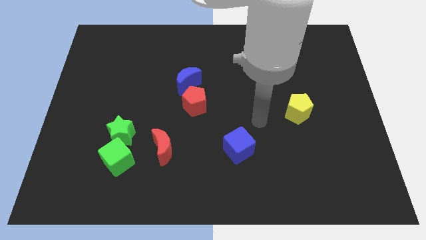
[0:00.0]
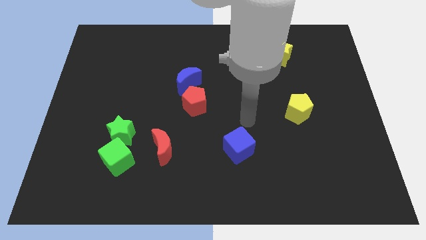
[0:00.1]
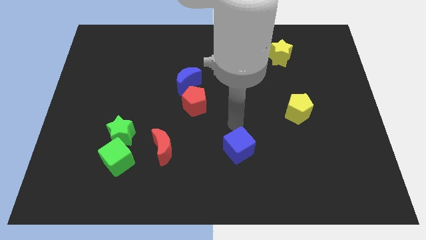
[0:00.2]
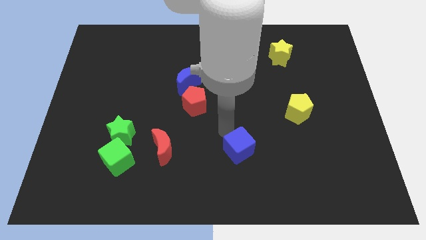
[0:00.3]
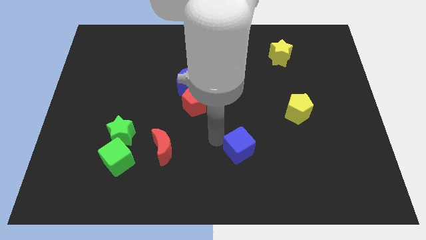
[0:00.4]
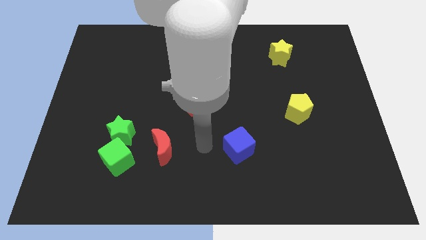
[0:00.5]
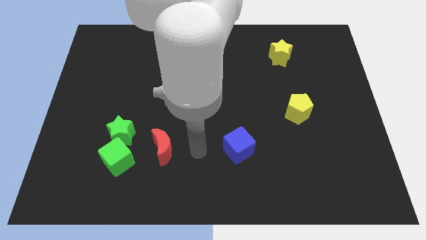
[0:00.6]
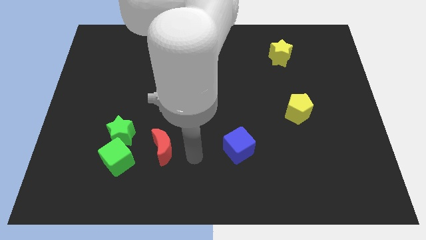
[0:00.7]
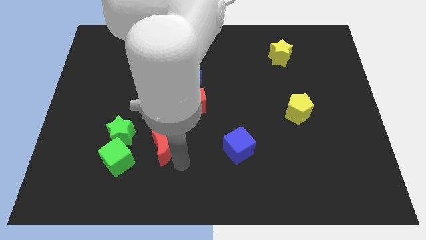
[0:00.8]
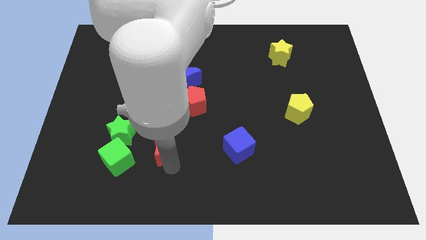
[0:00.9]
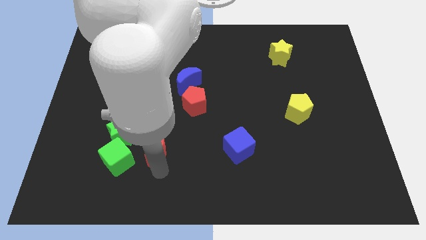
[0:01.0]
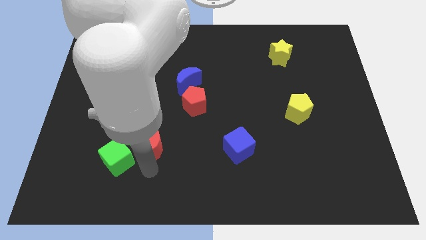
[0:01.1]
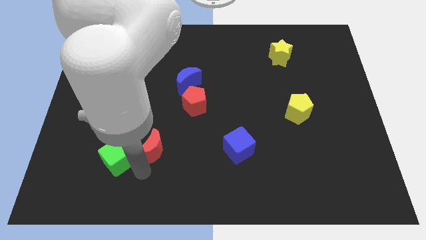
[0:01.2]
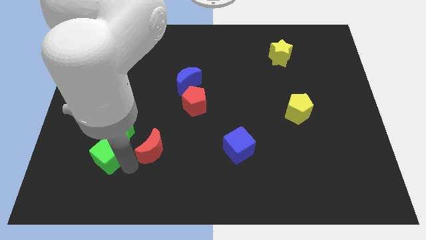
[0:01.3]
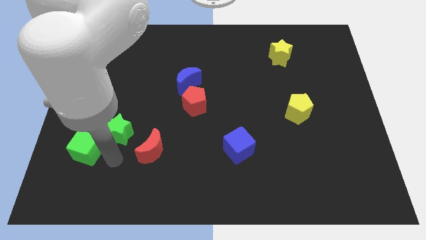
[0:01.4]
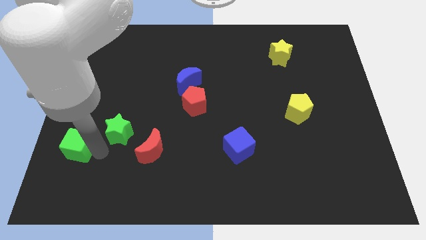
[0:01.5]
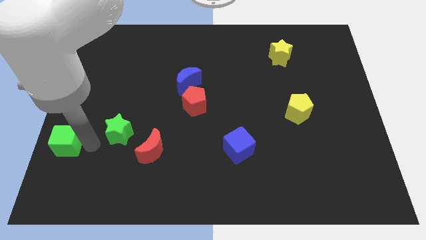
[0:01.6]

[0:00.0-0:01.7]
separate the green star from the green cube

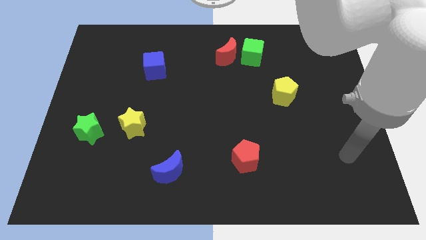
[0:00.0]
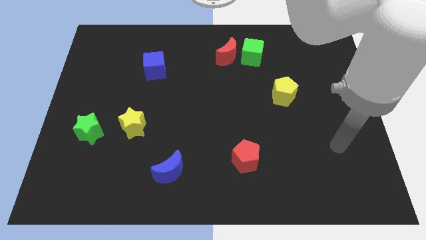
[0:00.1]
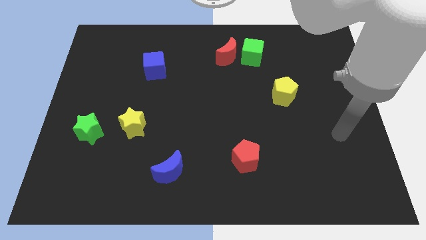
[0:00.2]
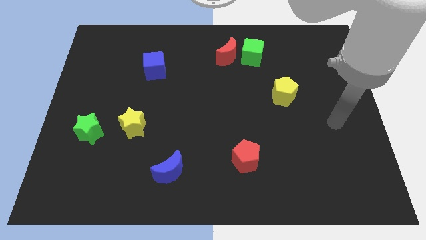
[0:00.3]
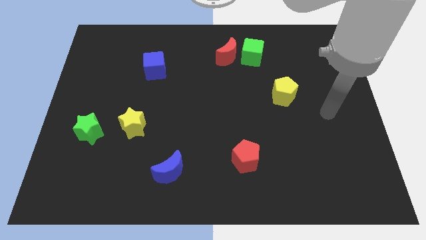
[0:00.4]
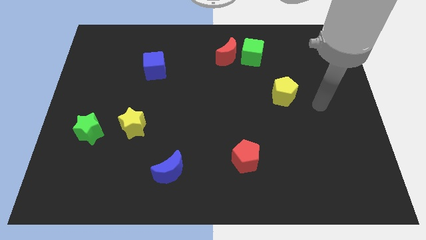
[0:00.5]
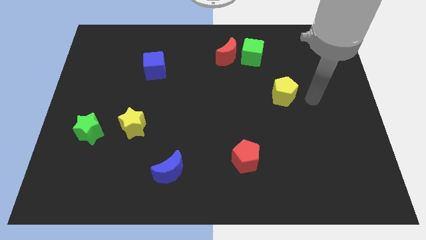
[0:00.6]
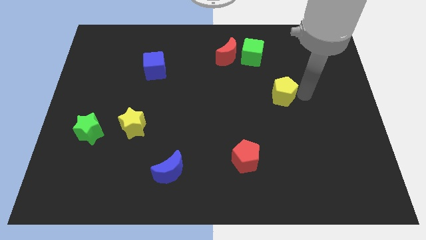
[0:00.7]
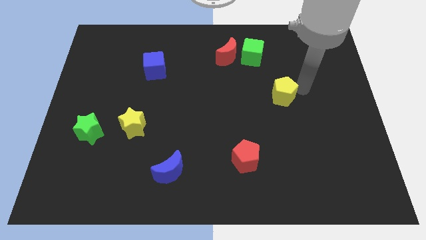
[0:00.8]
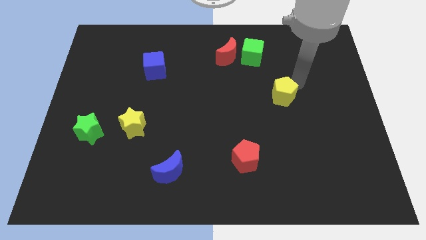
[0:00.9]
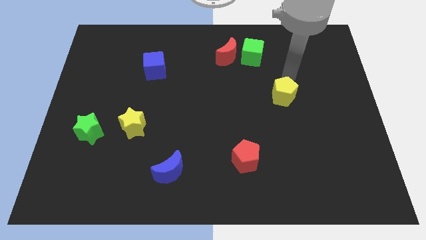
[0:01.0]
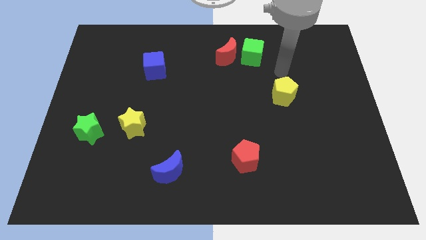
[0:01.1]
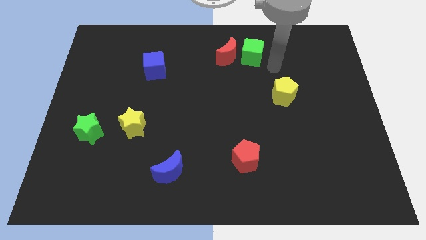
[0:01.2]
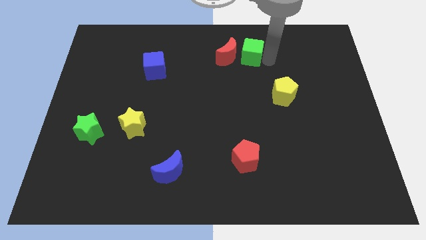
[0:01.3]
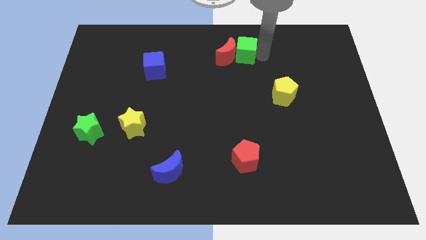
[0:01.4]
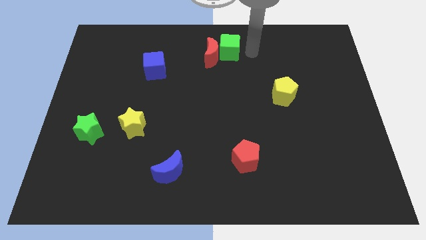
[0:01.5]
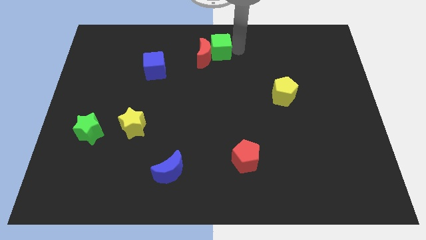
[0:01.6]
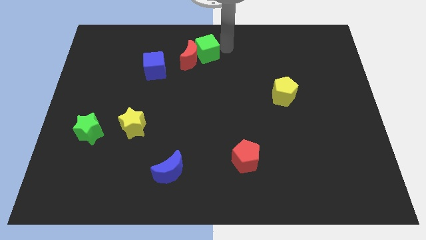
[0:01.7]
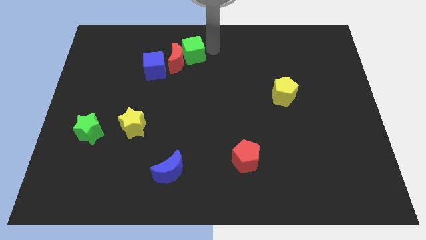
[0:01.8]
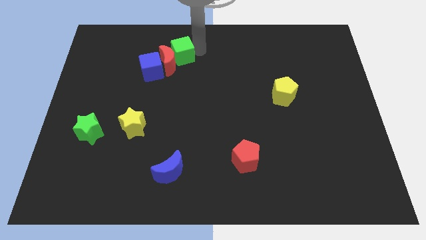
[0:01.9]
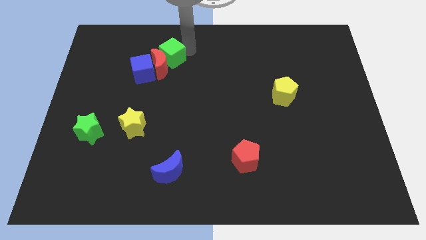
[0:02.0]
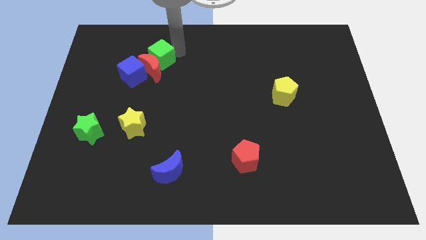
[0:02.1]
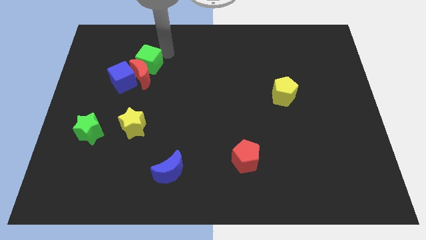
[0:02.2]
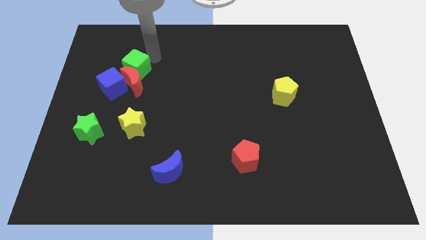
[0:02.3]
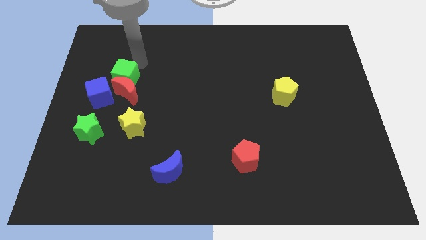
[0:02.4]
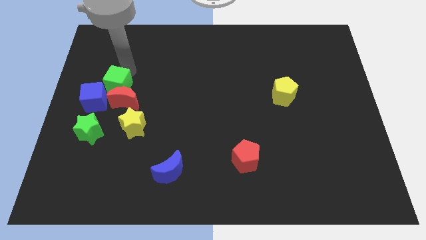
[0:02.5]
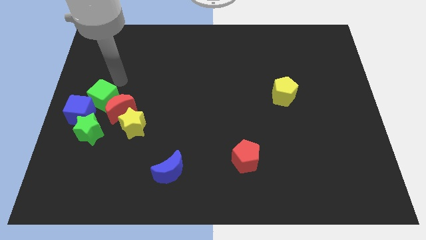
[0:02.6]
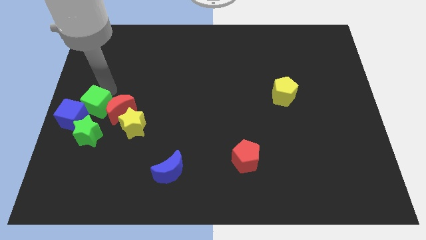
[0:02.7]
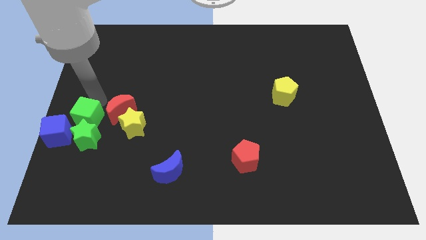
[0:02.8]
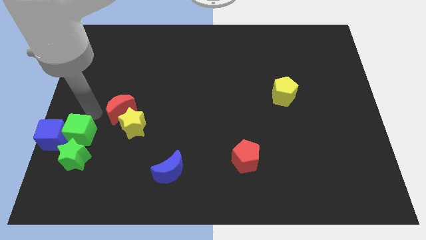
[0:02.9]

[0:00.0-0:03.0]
pull the red moon apart from the green cube

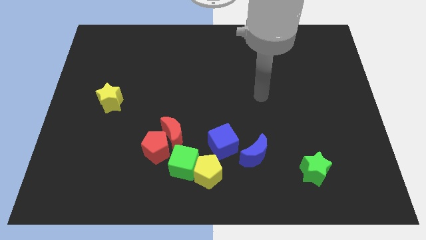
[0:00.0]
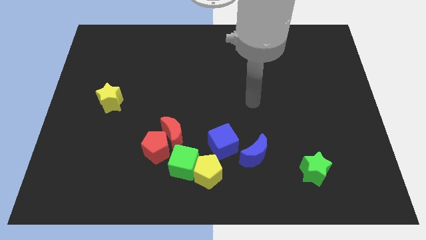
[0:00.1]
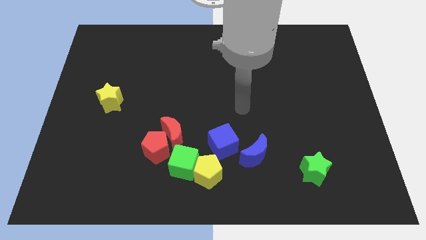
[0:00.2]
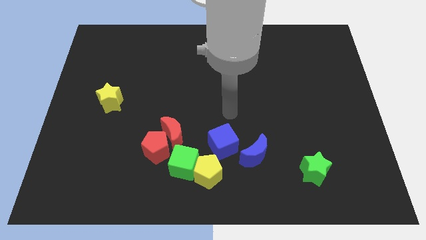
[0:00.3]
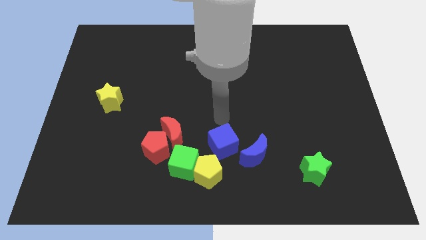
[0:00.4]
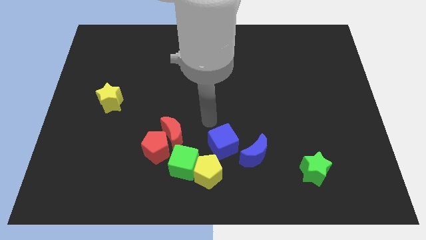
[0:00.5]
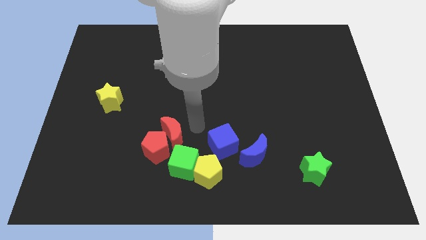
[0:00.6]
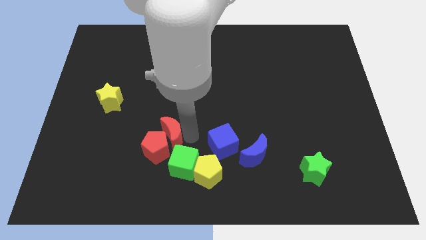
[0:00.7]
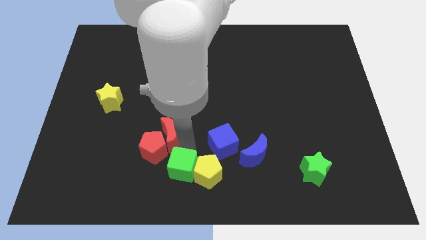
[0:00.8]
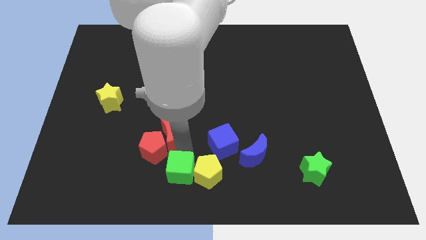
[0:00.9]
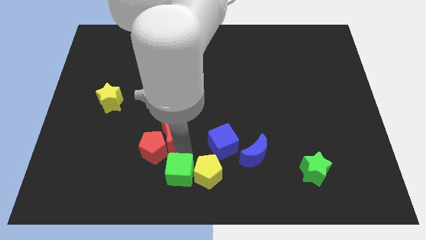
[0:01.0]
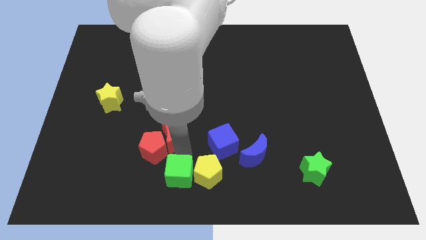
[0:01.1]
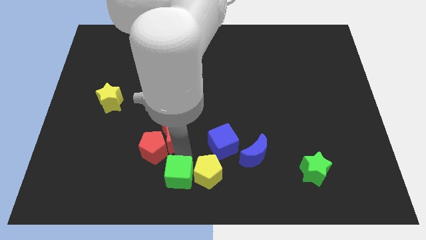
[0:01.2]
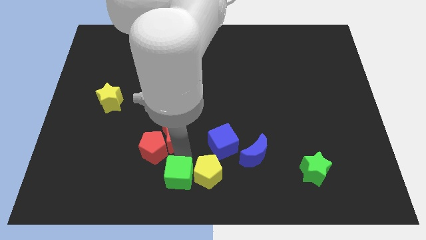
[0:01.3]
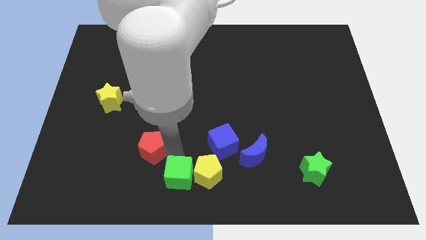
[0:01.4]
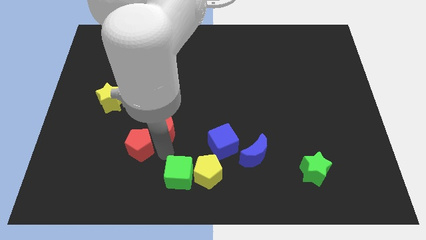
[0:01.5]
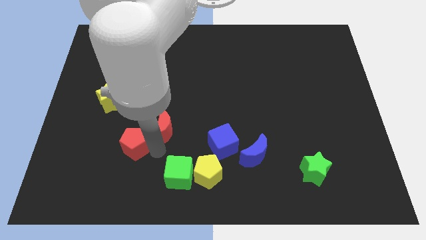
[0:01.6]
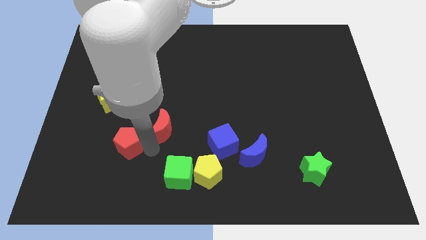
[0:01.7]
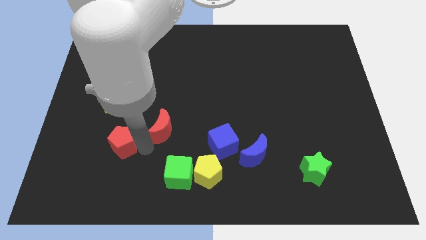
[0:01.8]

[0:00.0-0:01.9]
move the red pentagon away from the red moon and green cube

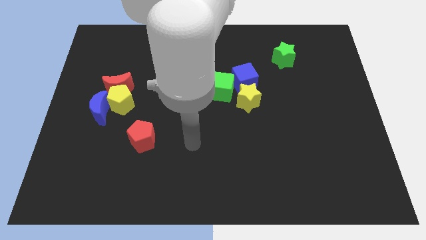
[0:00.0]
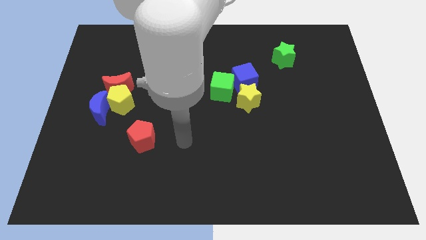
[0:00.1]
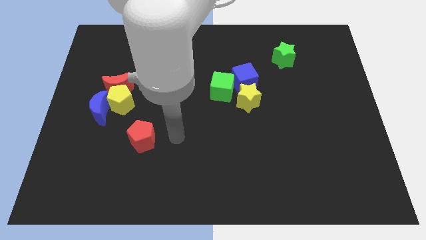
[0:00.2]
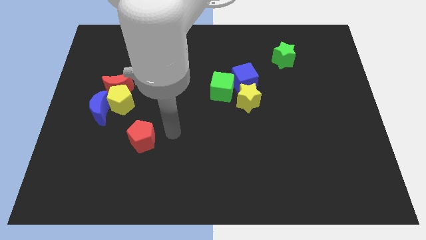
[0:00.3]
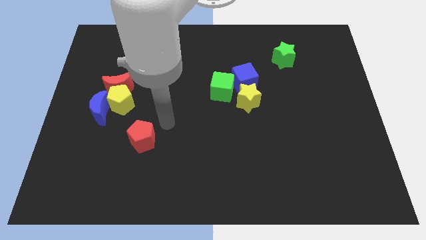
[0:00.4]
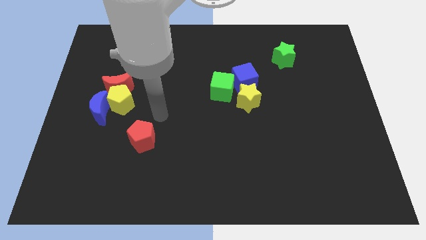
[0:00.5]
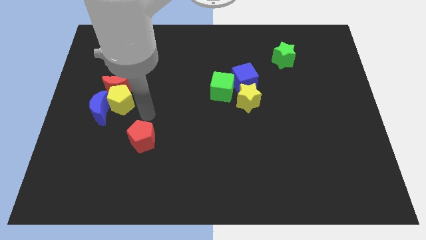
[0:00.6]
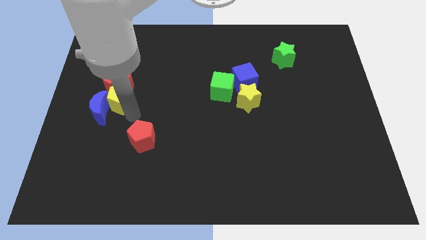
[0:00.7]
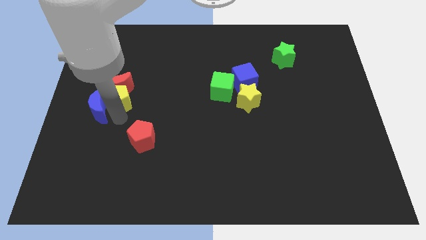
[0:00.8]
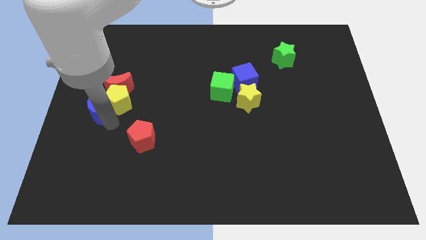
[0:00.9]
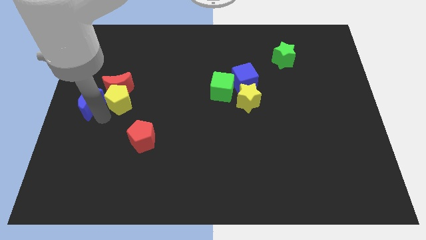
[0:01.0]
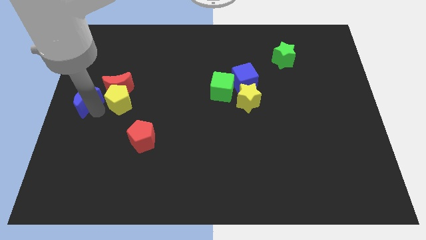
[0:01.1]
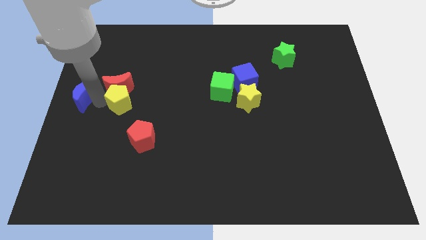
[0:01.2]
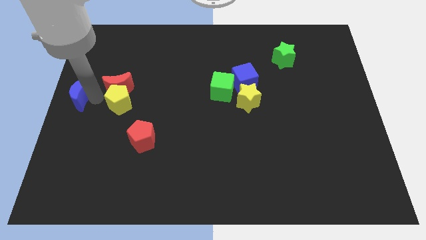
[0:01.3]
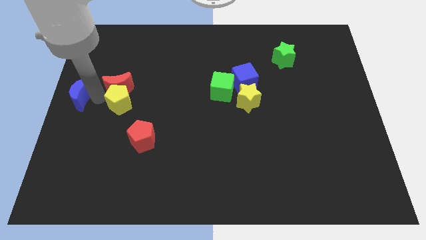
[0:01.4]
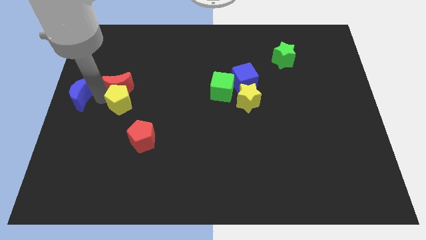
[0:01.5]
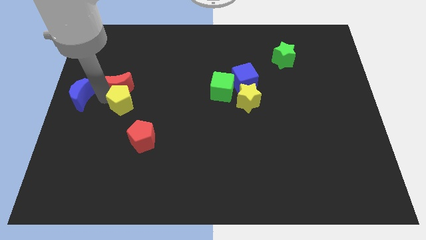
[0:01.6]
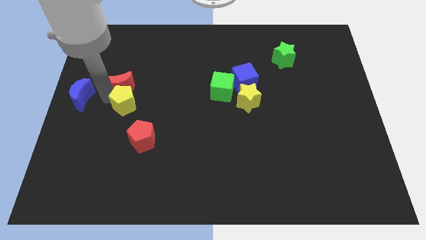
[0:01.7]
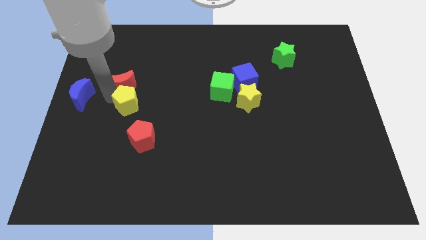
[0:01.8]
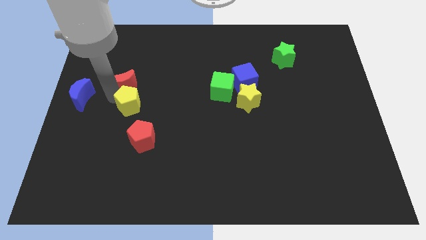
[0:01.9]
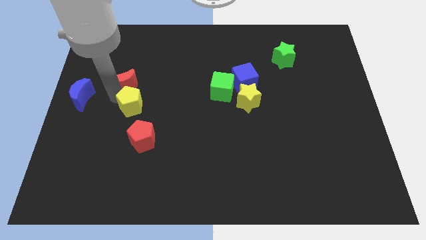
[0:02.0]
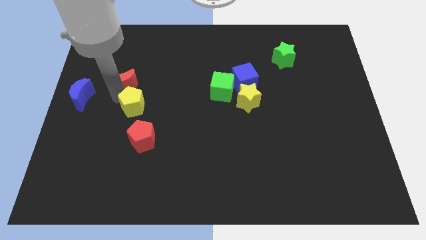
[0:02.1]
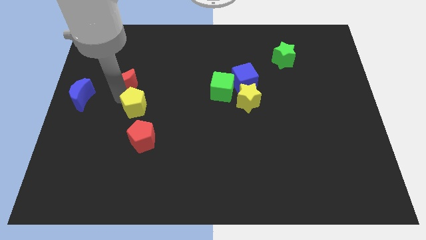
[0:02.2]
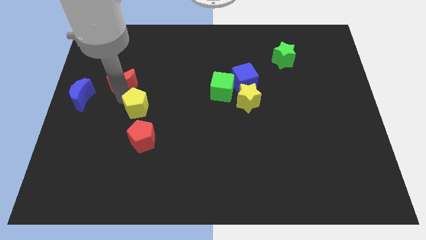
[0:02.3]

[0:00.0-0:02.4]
pull the yellow pentagon apart from the red moon and blue moon

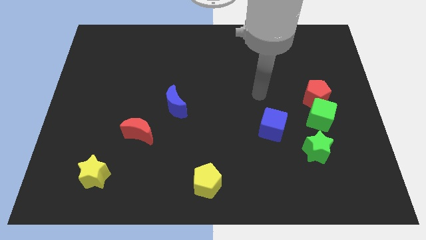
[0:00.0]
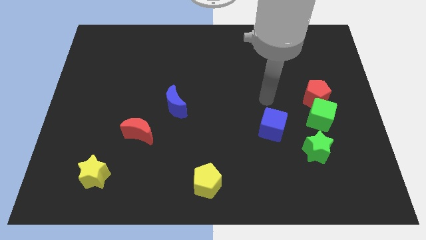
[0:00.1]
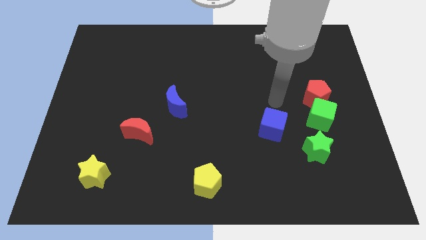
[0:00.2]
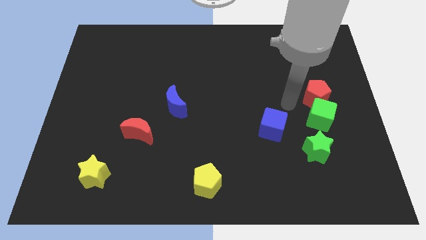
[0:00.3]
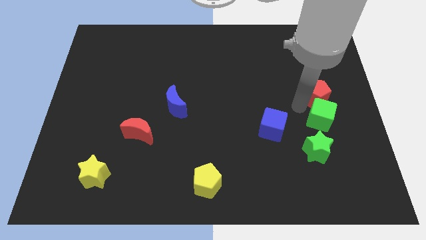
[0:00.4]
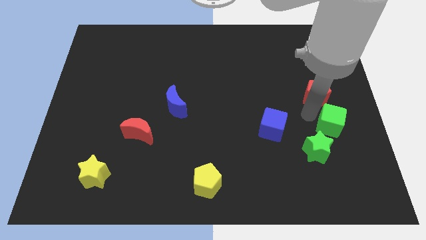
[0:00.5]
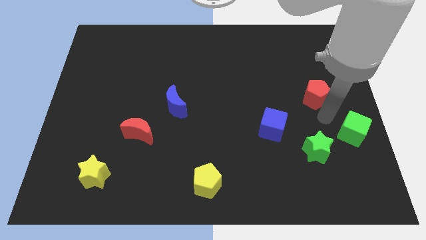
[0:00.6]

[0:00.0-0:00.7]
pull the red pentagon apart from the green cube
